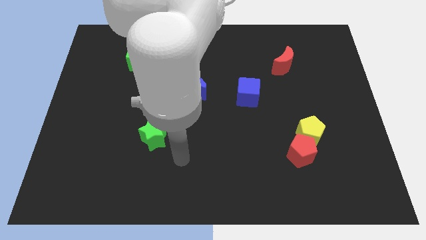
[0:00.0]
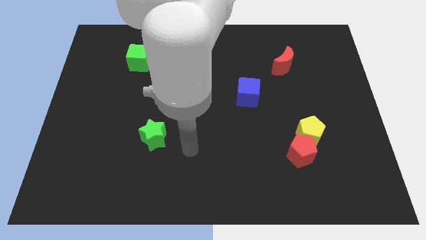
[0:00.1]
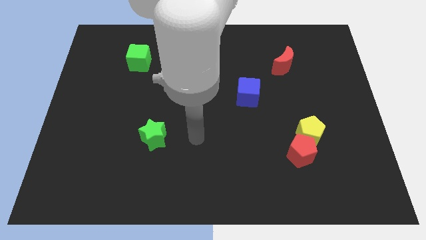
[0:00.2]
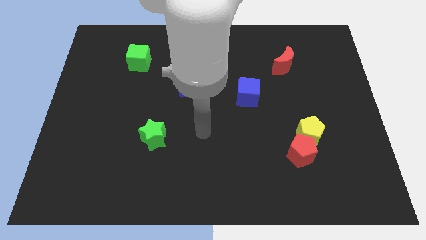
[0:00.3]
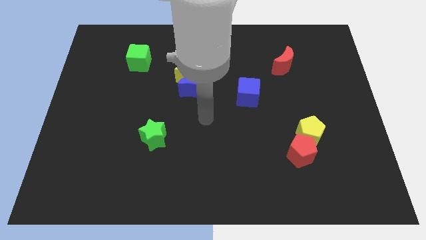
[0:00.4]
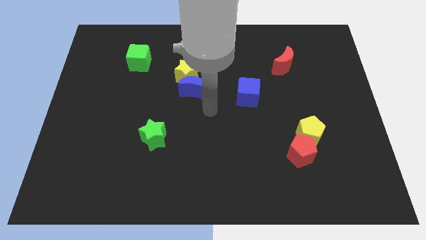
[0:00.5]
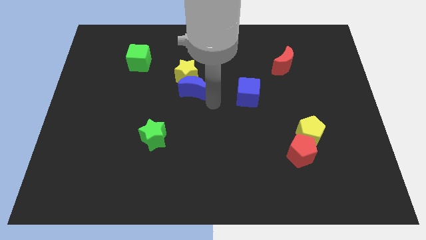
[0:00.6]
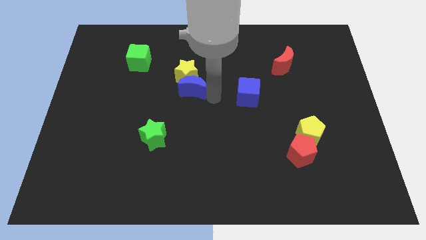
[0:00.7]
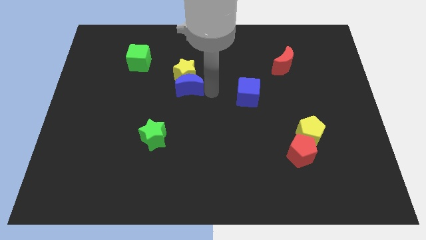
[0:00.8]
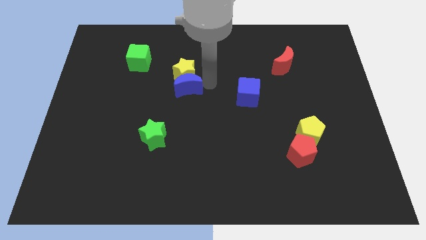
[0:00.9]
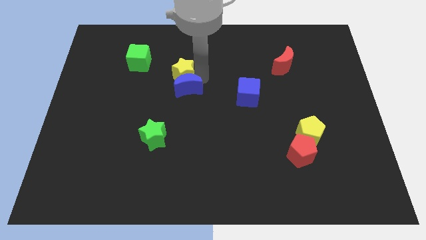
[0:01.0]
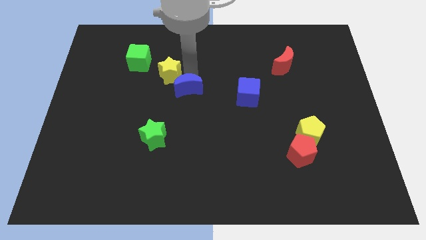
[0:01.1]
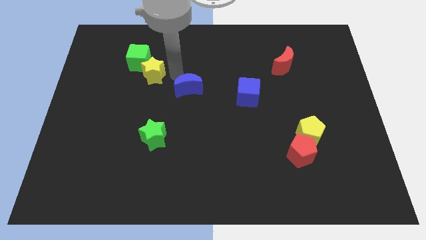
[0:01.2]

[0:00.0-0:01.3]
move the blue moon away from the yellow star

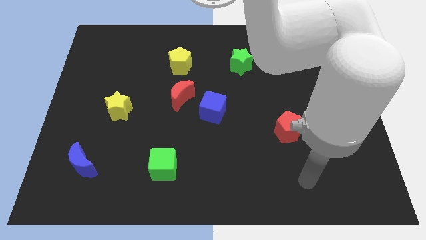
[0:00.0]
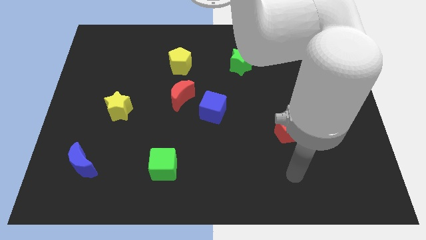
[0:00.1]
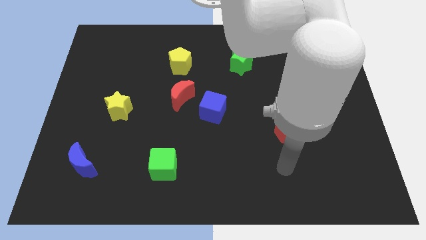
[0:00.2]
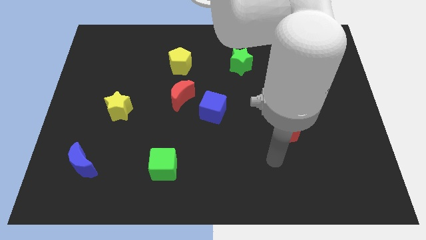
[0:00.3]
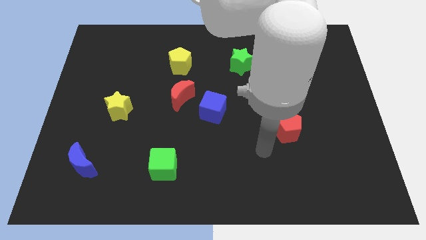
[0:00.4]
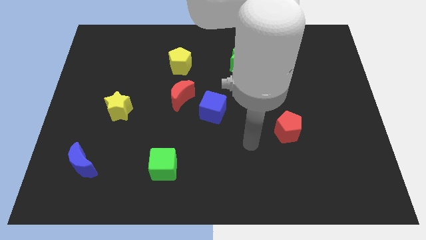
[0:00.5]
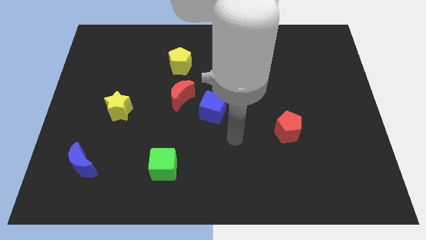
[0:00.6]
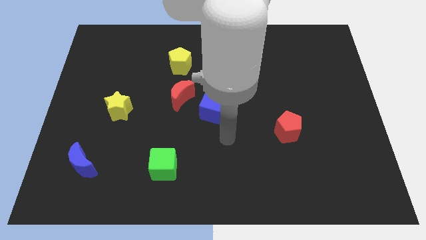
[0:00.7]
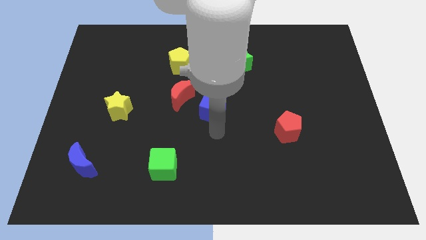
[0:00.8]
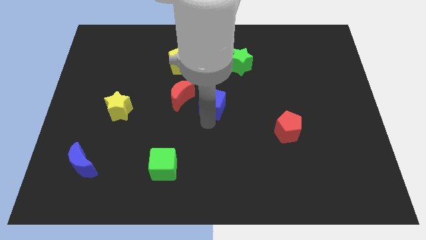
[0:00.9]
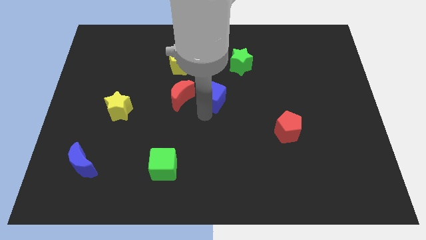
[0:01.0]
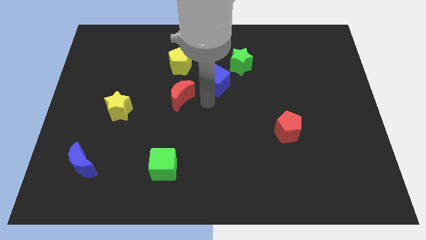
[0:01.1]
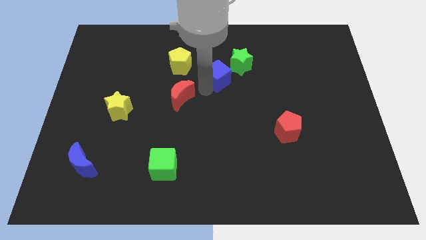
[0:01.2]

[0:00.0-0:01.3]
pull the red moon apart from the blue cube

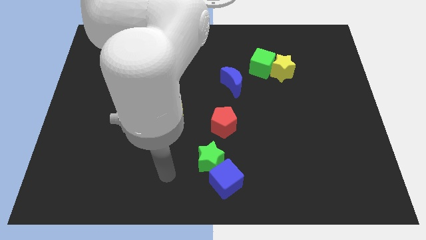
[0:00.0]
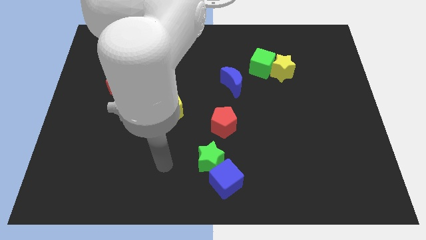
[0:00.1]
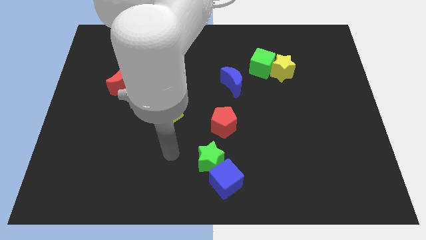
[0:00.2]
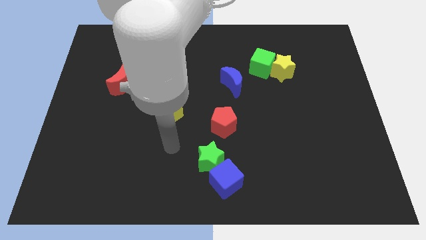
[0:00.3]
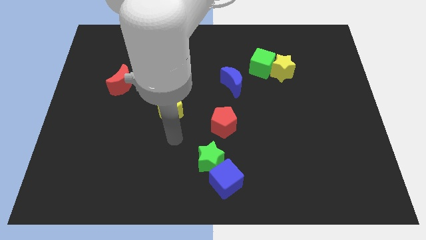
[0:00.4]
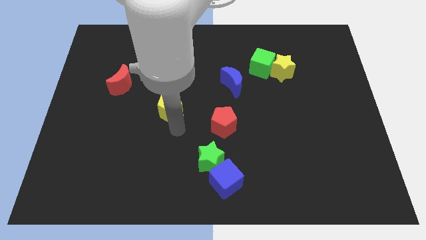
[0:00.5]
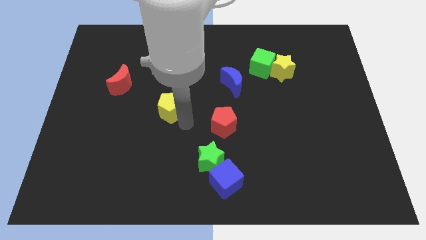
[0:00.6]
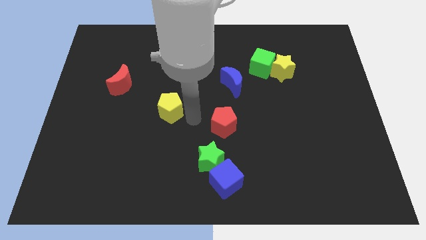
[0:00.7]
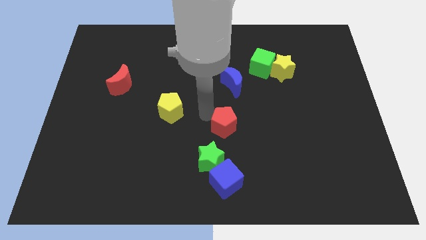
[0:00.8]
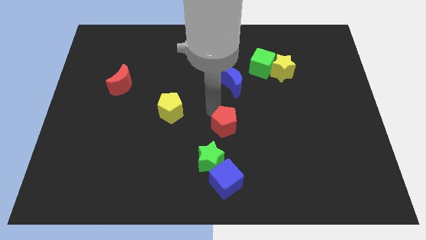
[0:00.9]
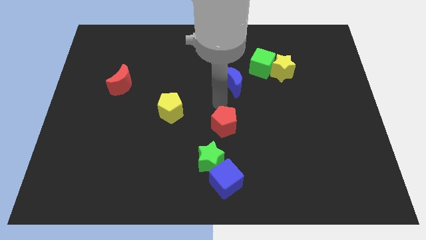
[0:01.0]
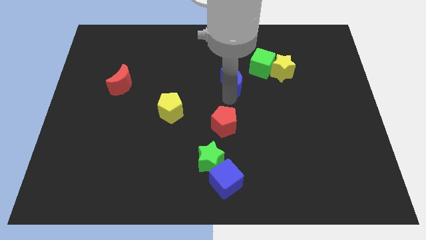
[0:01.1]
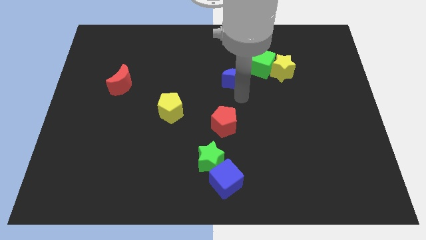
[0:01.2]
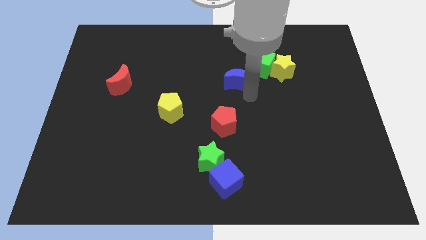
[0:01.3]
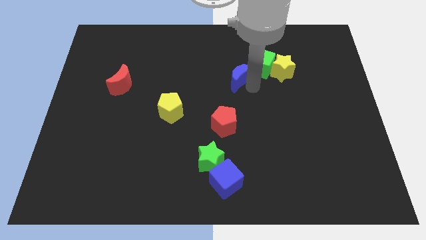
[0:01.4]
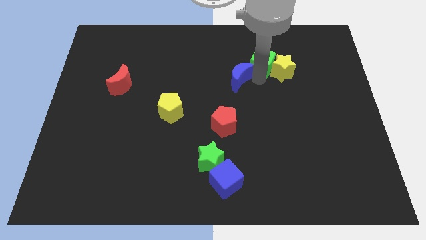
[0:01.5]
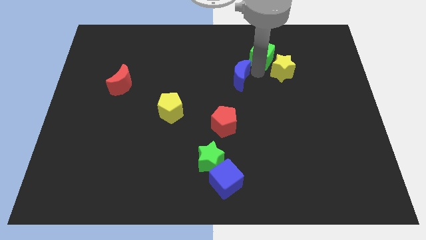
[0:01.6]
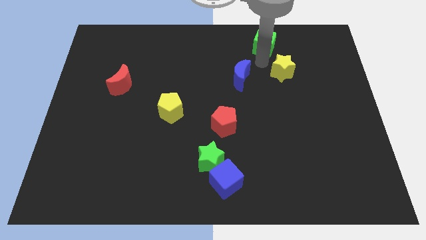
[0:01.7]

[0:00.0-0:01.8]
separate the yellow star from the green cube

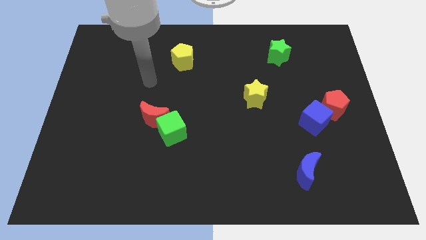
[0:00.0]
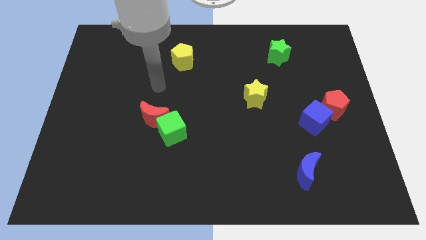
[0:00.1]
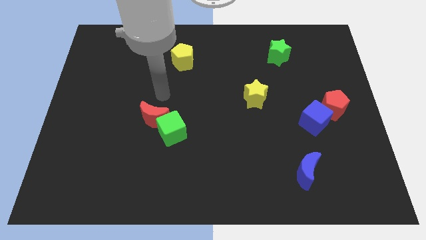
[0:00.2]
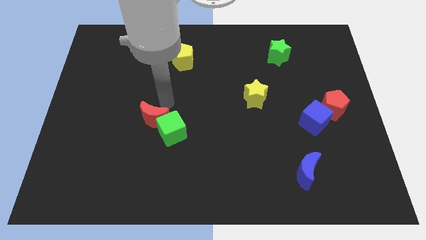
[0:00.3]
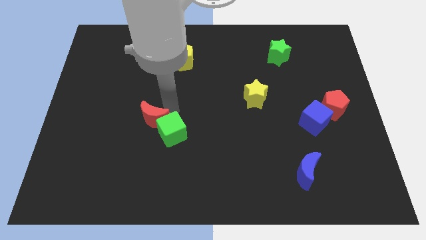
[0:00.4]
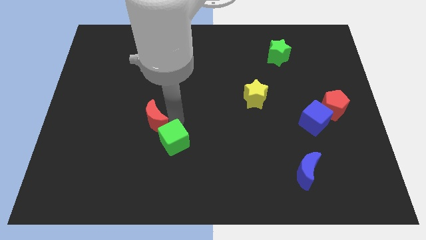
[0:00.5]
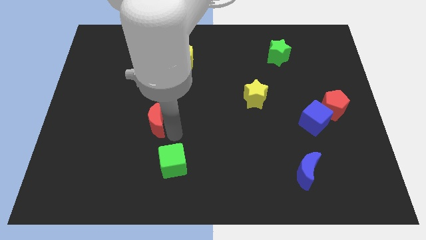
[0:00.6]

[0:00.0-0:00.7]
move the red moon away from the green cube

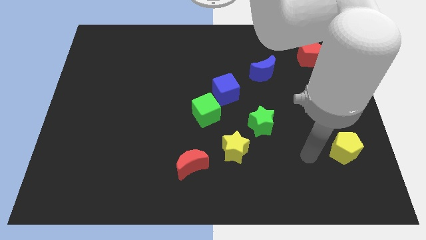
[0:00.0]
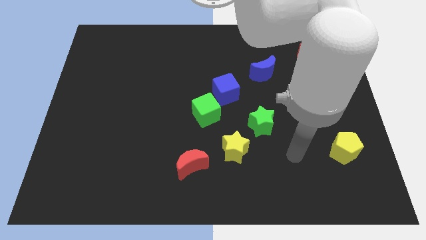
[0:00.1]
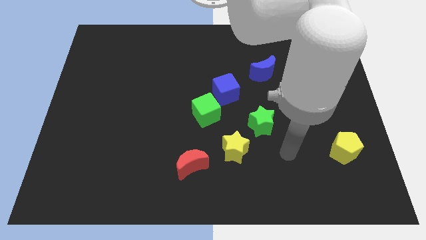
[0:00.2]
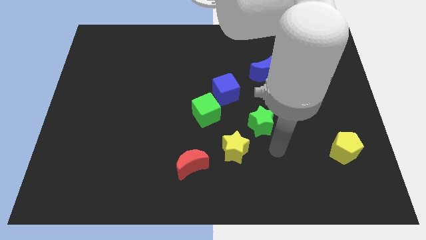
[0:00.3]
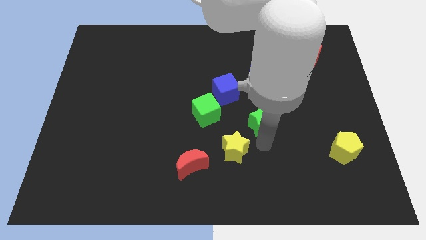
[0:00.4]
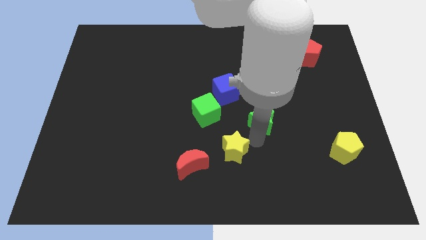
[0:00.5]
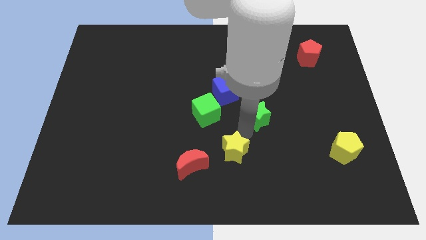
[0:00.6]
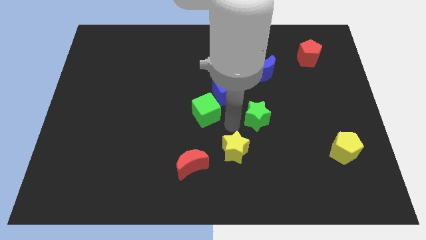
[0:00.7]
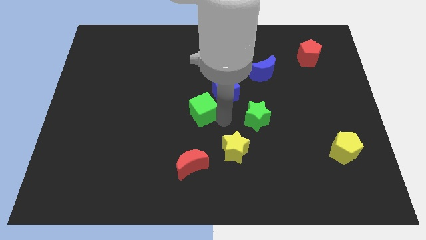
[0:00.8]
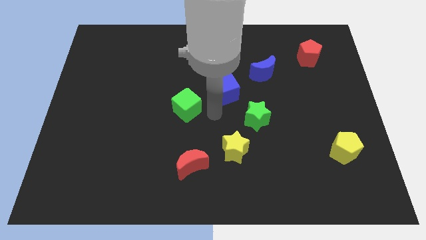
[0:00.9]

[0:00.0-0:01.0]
move the blue cube away from the green cube

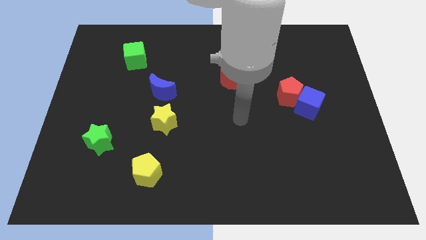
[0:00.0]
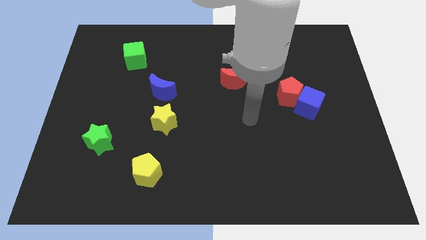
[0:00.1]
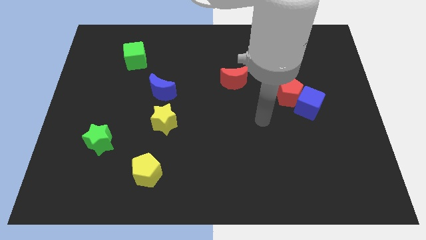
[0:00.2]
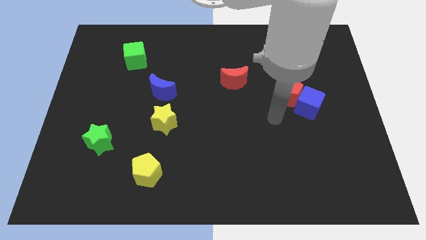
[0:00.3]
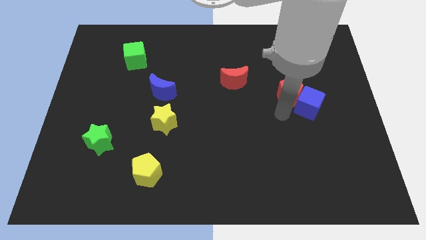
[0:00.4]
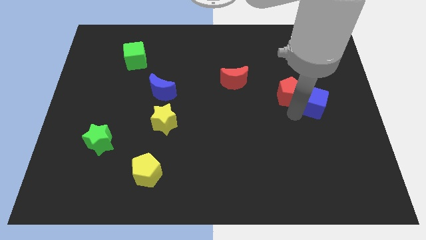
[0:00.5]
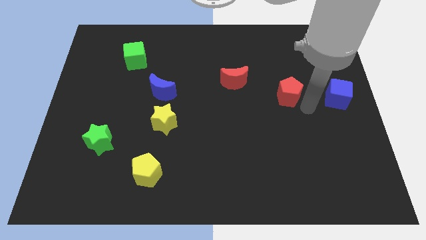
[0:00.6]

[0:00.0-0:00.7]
pull the red pentagon apart from the blue cube

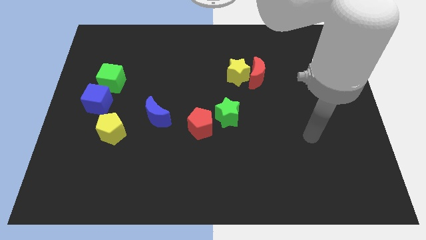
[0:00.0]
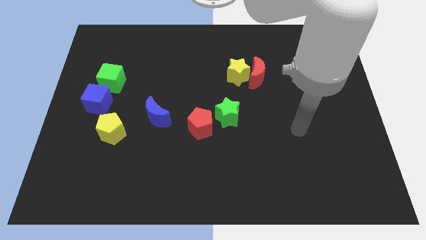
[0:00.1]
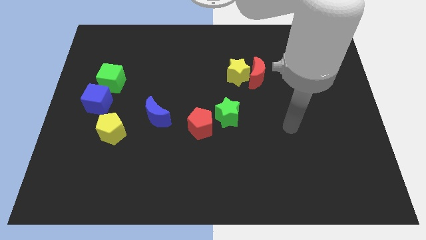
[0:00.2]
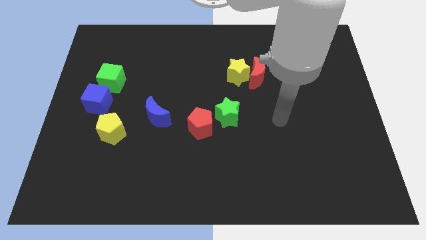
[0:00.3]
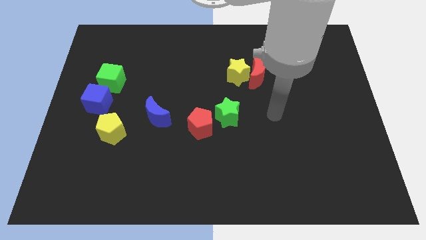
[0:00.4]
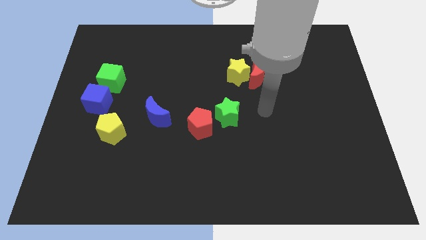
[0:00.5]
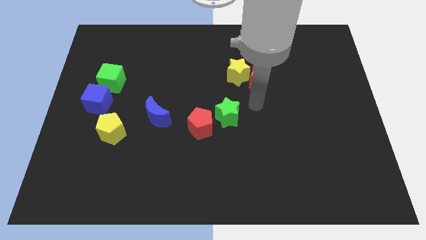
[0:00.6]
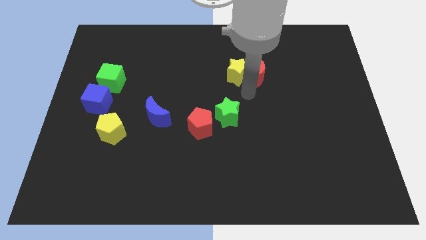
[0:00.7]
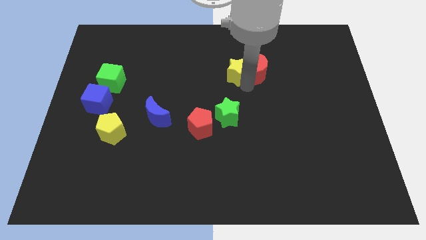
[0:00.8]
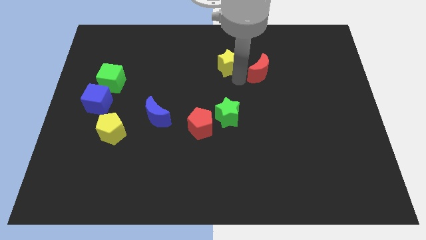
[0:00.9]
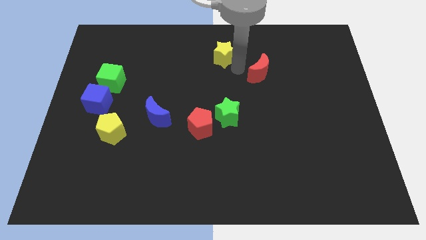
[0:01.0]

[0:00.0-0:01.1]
pull the red moon apart from the yellow star

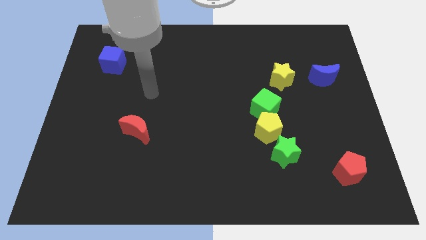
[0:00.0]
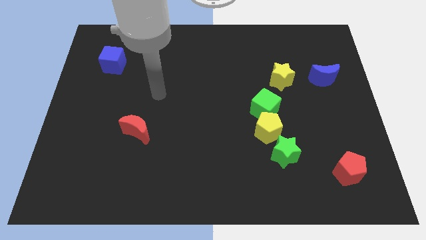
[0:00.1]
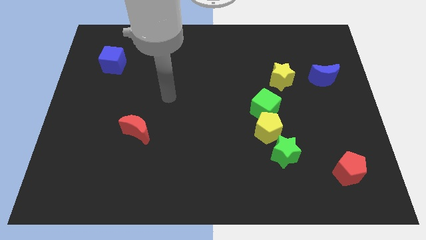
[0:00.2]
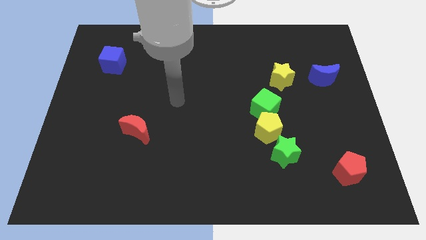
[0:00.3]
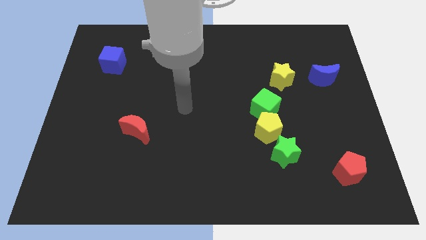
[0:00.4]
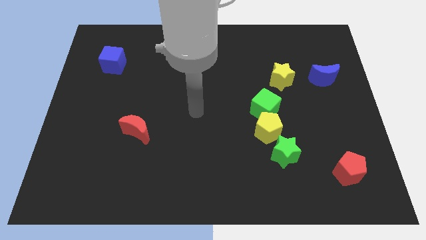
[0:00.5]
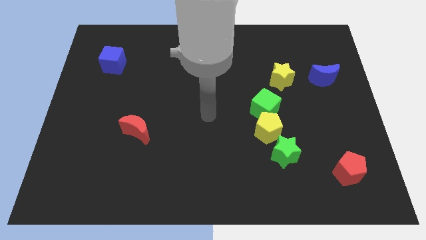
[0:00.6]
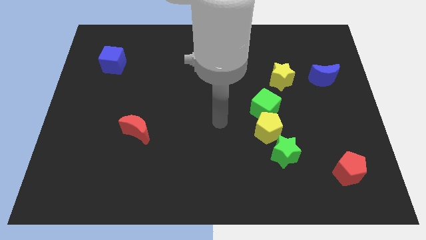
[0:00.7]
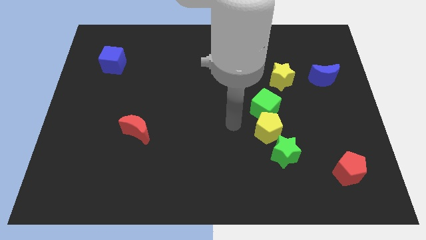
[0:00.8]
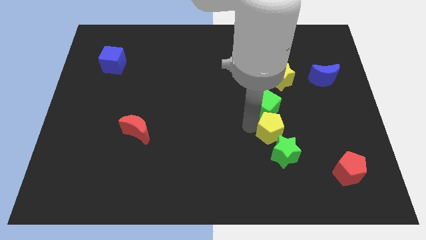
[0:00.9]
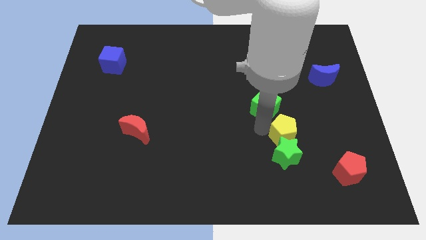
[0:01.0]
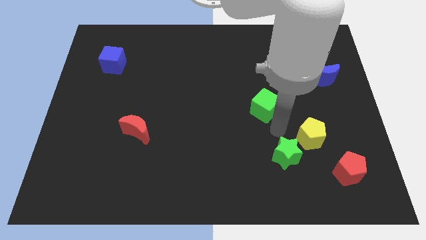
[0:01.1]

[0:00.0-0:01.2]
move the green cube away from the yellow pentagon

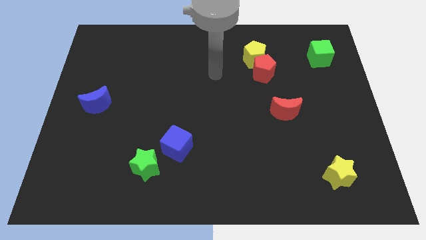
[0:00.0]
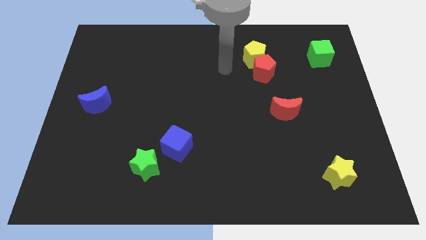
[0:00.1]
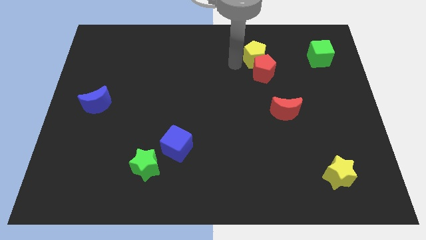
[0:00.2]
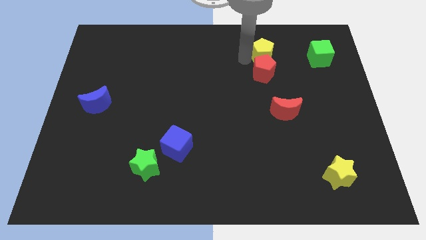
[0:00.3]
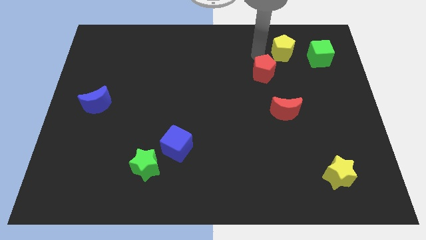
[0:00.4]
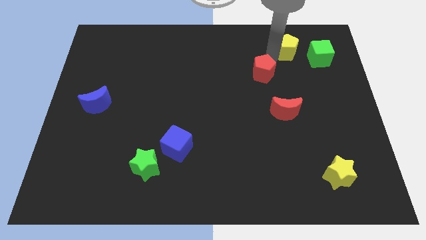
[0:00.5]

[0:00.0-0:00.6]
pull the red pentagon apart from the yellow pentagon
